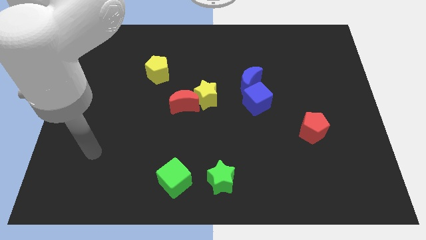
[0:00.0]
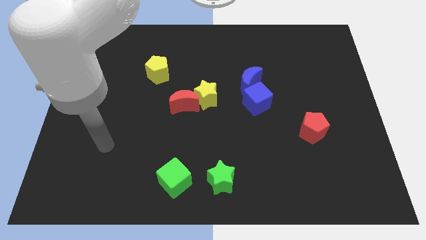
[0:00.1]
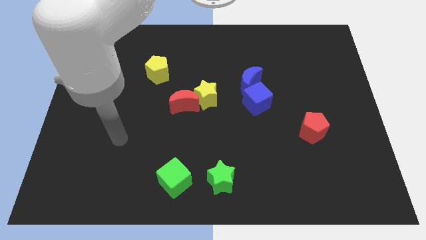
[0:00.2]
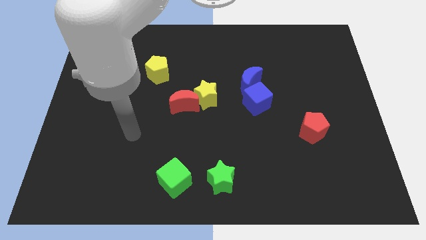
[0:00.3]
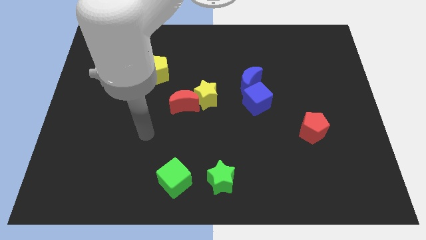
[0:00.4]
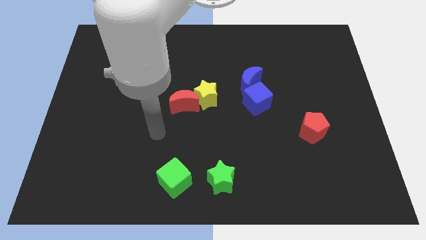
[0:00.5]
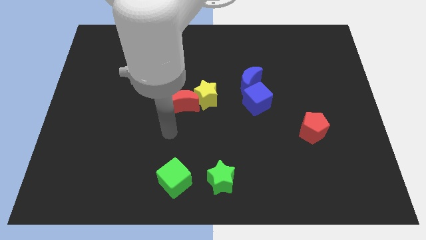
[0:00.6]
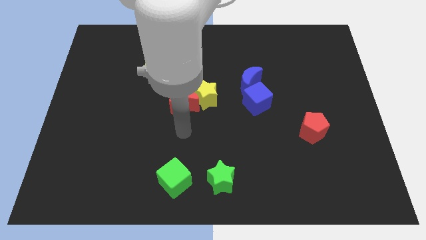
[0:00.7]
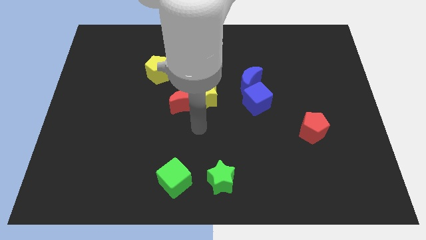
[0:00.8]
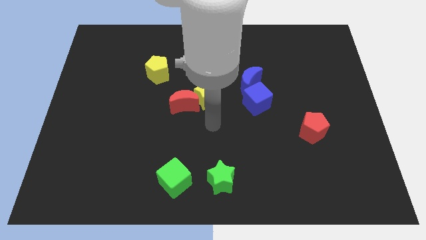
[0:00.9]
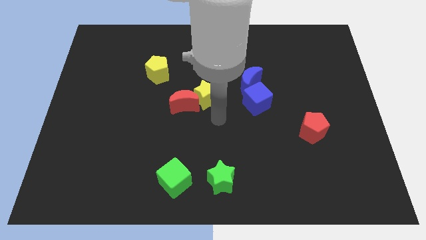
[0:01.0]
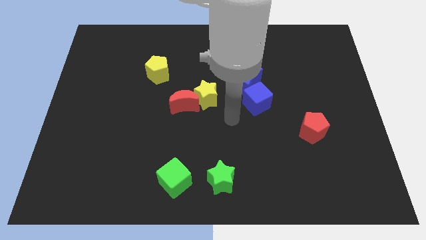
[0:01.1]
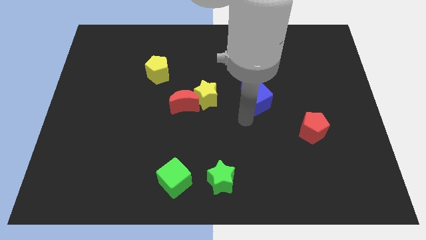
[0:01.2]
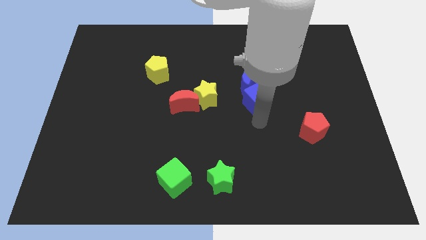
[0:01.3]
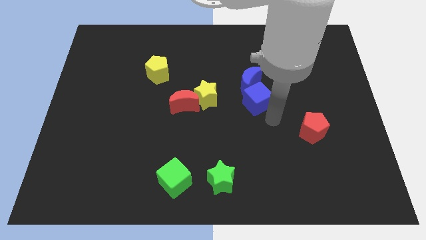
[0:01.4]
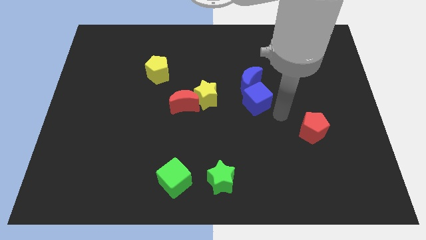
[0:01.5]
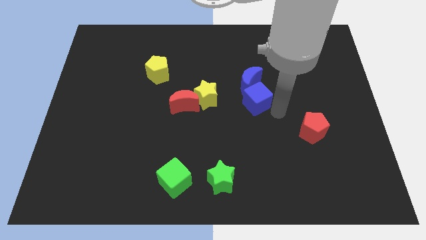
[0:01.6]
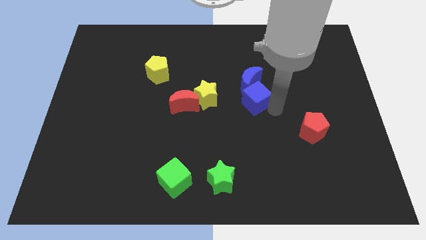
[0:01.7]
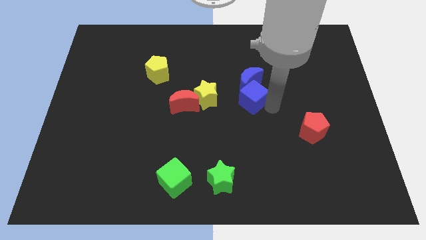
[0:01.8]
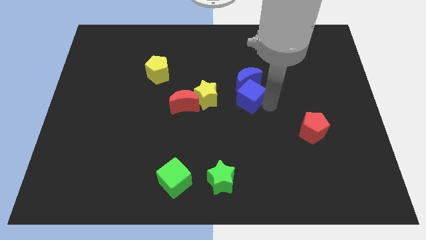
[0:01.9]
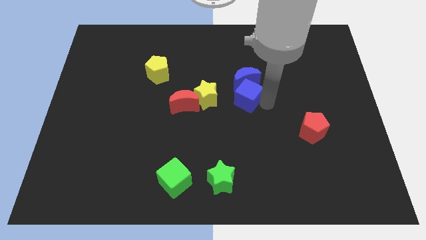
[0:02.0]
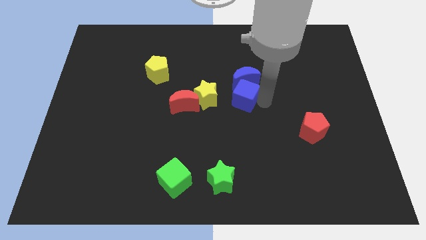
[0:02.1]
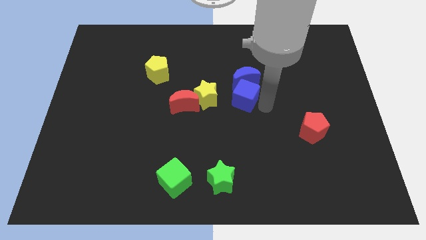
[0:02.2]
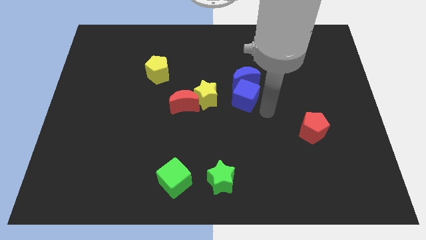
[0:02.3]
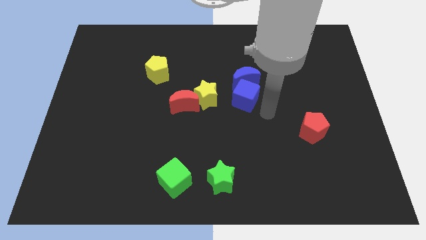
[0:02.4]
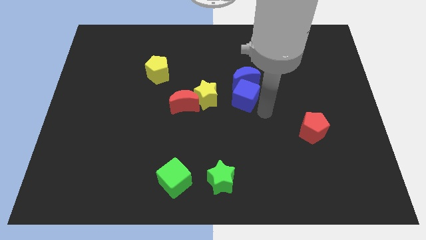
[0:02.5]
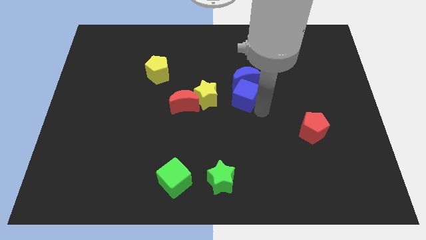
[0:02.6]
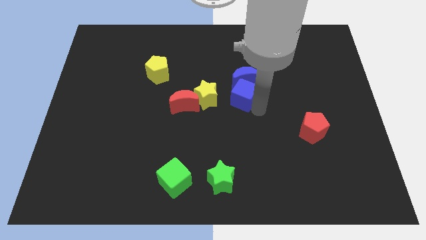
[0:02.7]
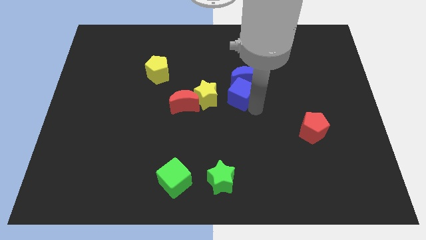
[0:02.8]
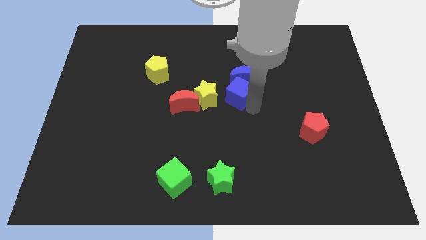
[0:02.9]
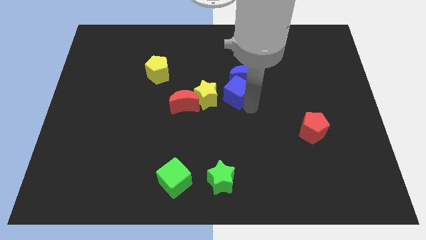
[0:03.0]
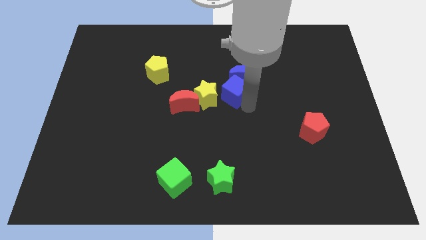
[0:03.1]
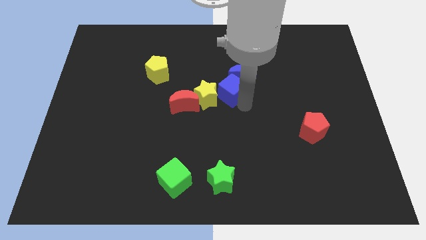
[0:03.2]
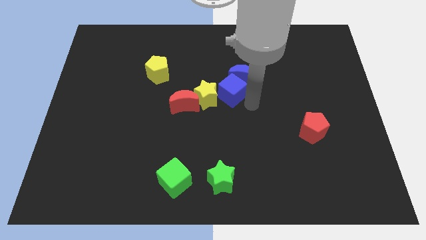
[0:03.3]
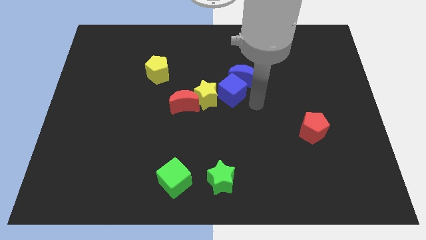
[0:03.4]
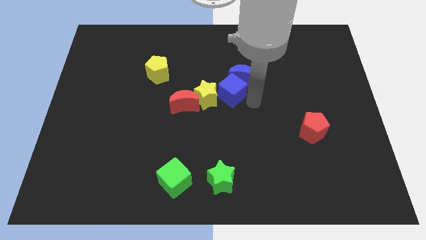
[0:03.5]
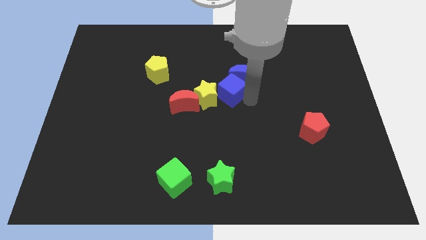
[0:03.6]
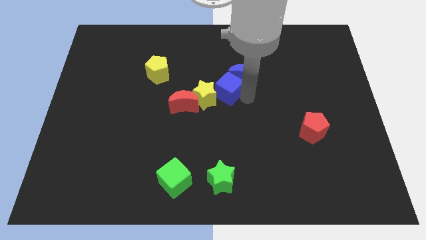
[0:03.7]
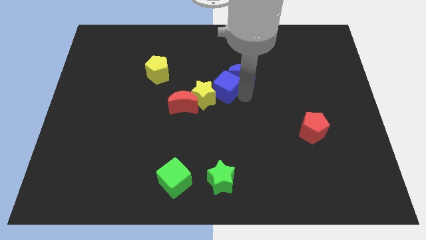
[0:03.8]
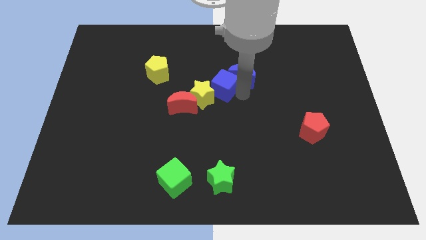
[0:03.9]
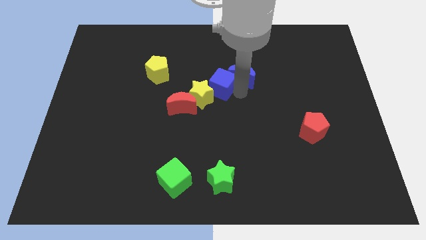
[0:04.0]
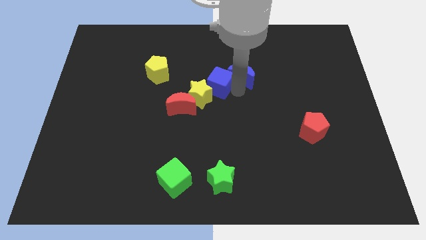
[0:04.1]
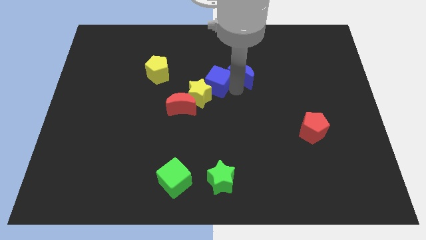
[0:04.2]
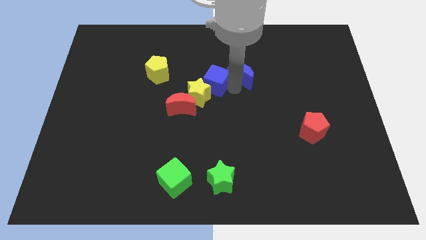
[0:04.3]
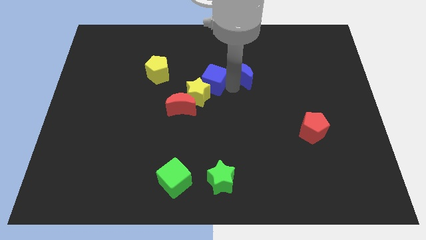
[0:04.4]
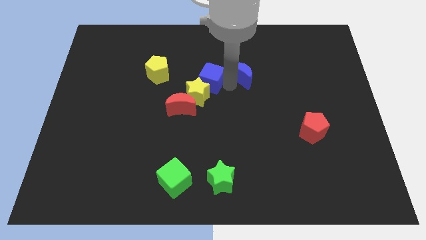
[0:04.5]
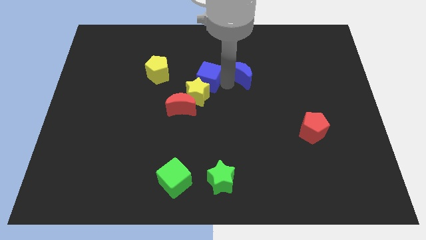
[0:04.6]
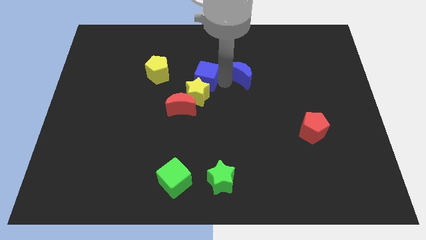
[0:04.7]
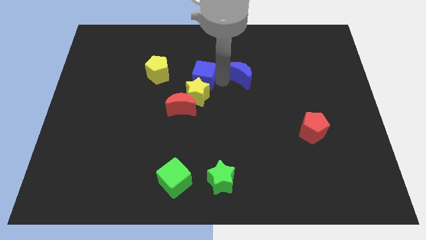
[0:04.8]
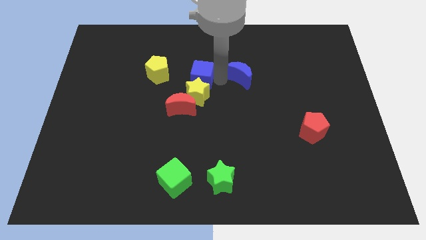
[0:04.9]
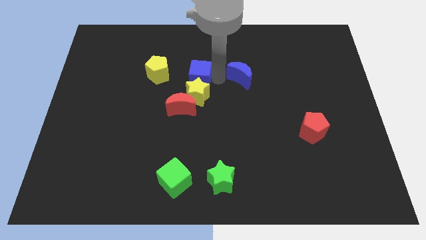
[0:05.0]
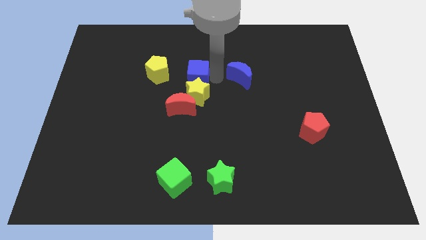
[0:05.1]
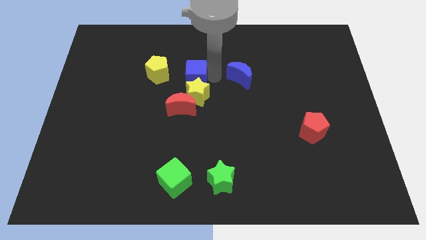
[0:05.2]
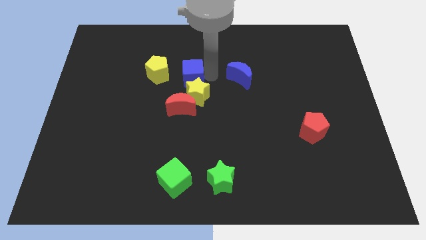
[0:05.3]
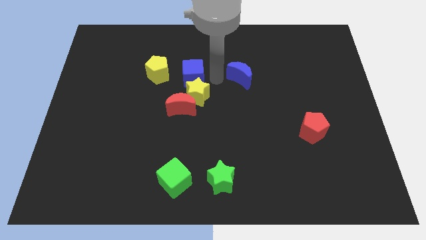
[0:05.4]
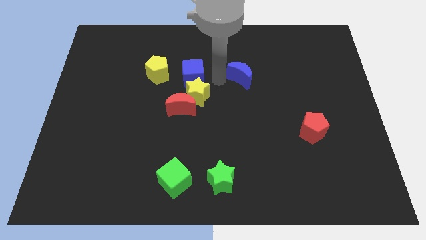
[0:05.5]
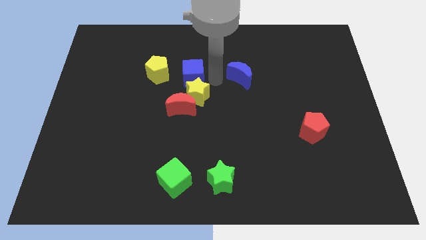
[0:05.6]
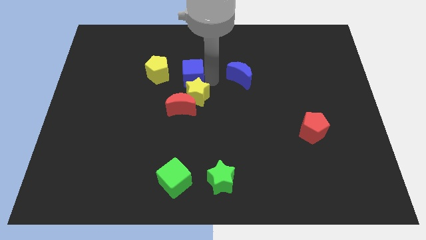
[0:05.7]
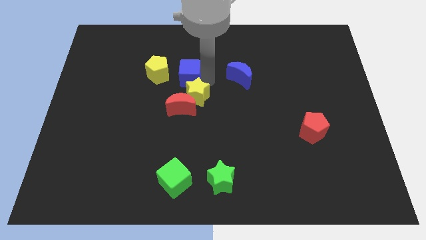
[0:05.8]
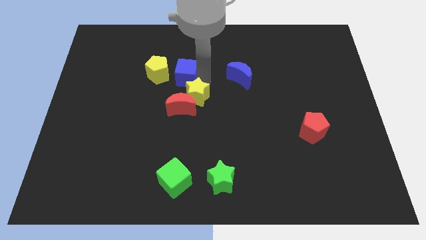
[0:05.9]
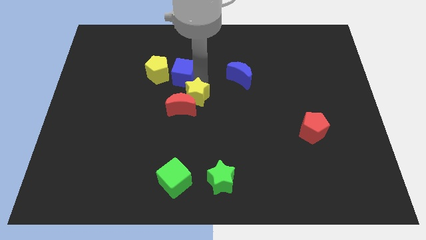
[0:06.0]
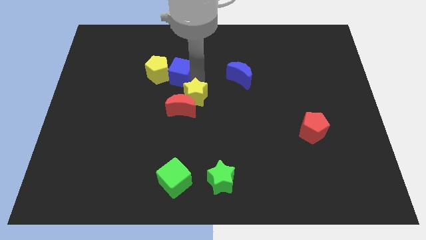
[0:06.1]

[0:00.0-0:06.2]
slide the blue cube to the yellow pentagon

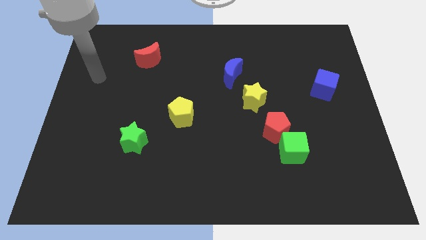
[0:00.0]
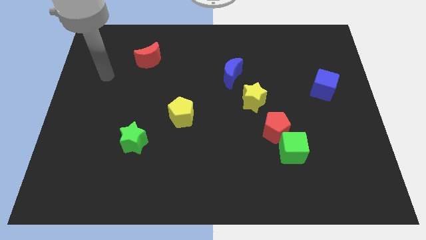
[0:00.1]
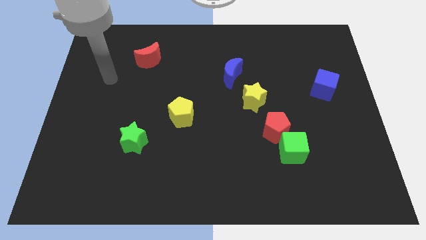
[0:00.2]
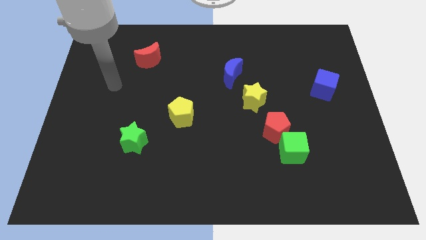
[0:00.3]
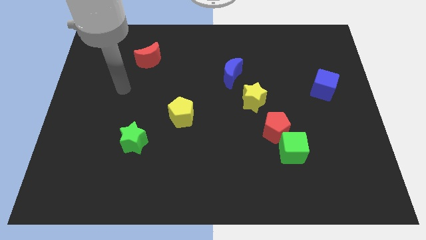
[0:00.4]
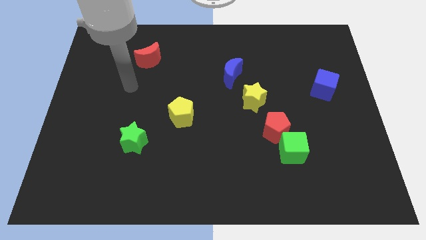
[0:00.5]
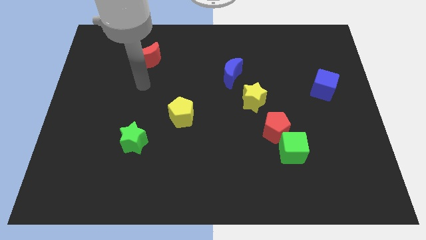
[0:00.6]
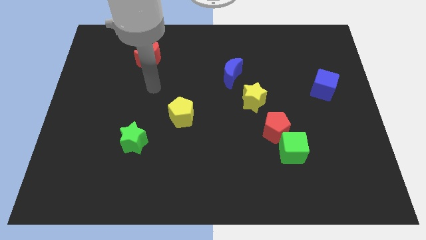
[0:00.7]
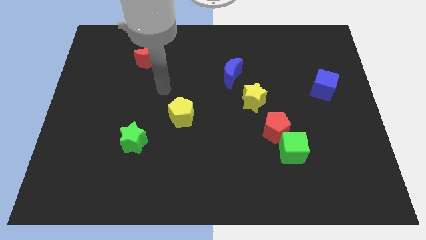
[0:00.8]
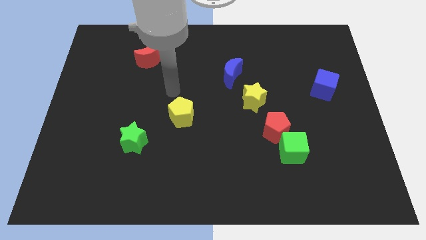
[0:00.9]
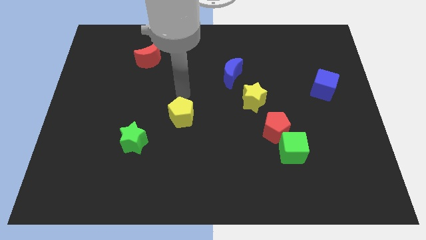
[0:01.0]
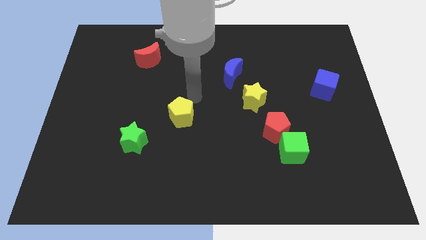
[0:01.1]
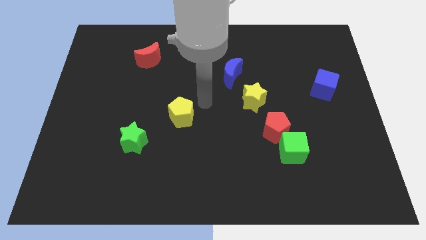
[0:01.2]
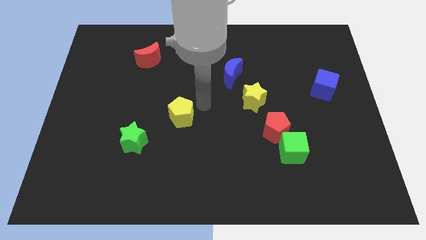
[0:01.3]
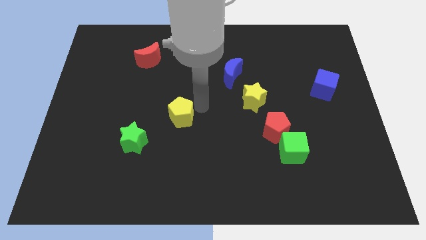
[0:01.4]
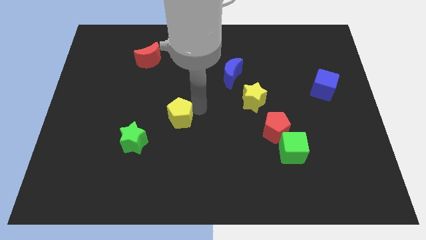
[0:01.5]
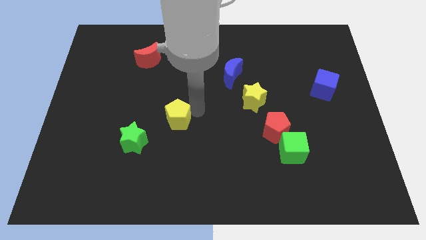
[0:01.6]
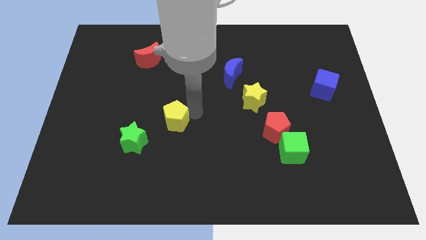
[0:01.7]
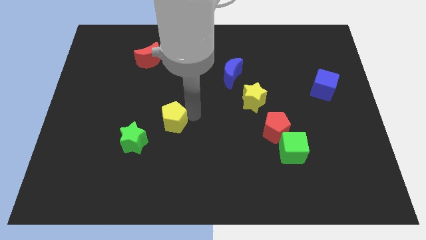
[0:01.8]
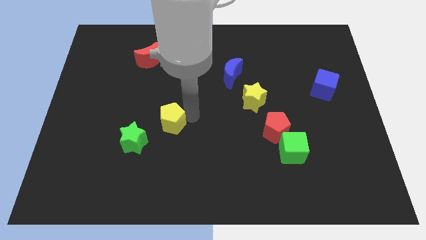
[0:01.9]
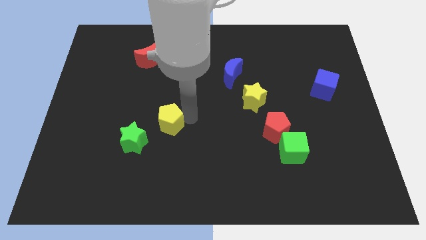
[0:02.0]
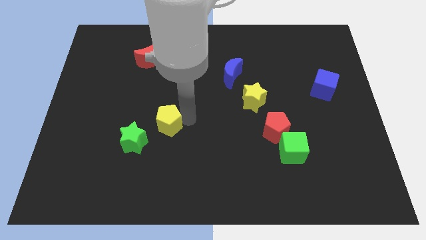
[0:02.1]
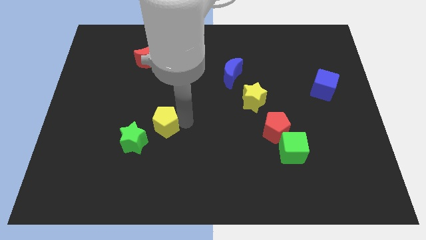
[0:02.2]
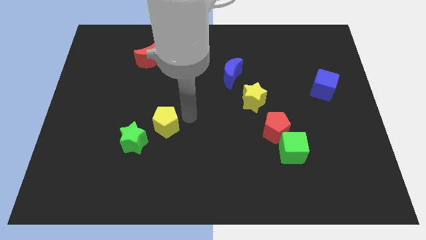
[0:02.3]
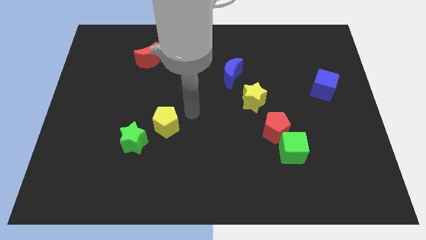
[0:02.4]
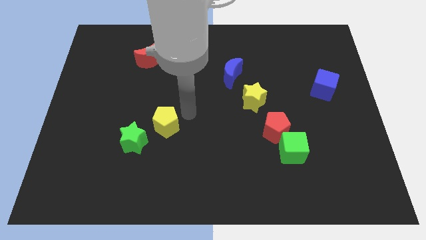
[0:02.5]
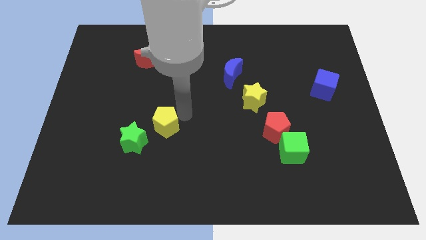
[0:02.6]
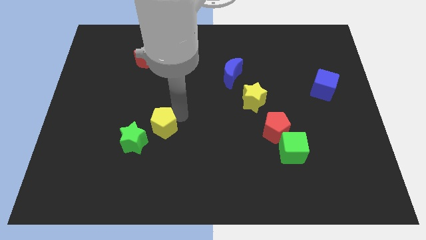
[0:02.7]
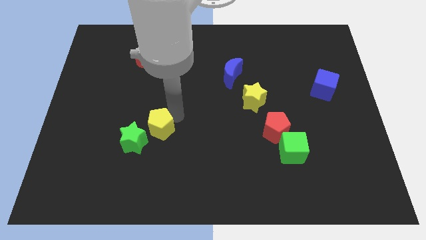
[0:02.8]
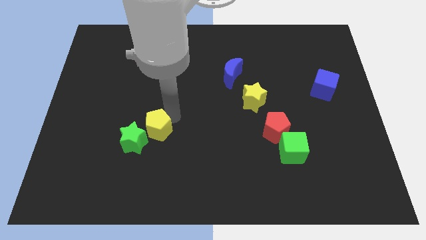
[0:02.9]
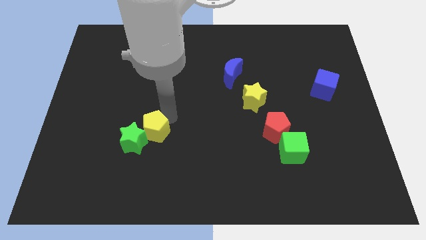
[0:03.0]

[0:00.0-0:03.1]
push the yellow pentagon next to the green star
